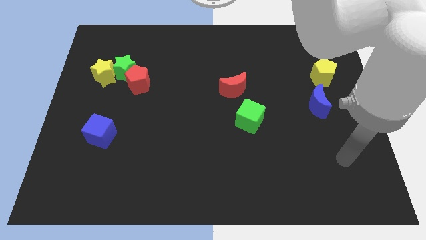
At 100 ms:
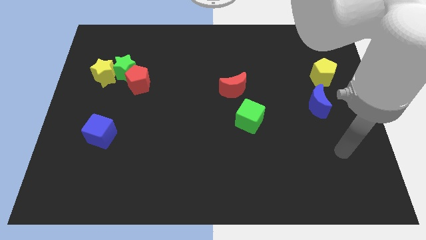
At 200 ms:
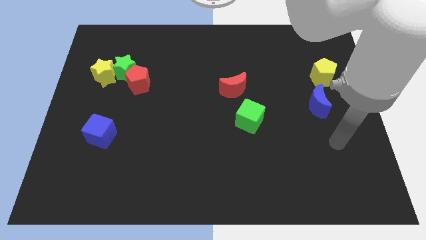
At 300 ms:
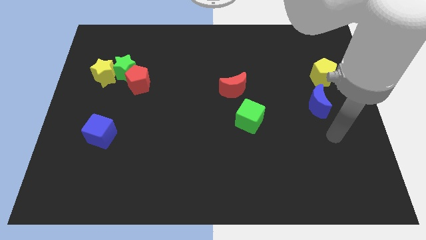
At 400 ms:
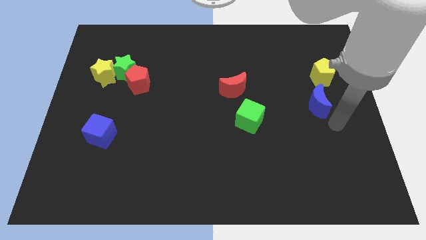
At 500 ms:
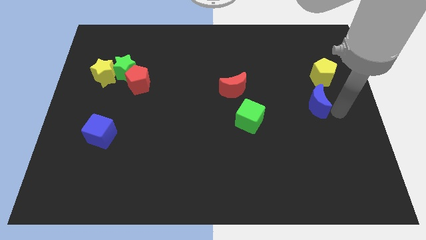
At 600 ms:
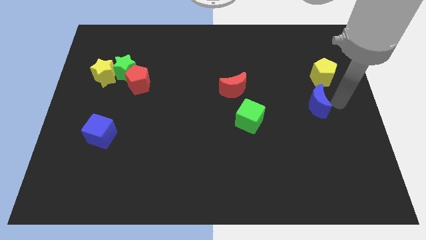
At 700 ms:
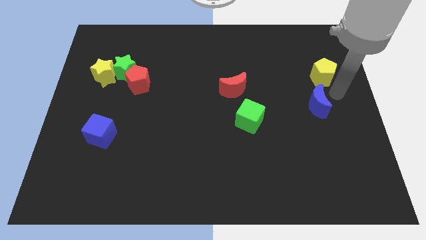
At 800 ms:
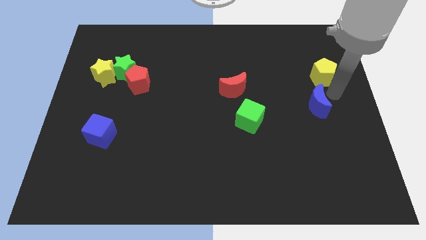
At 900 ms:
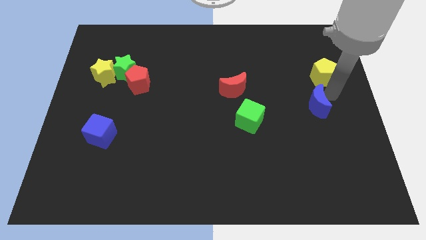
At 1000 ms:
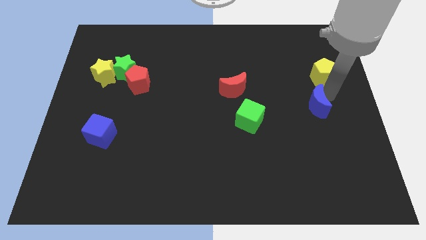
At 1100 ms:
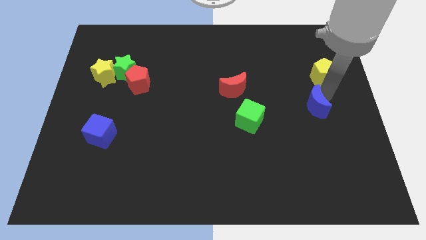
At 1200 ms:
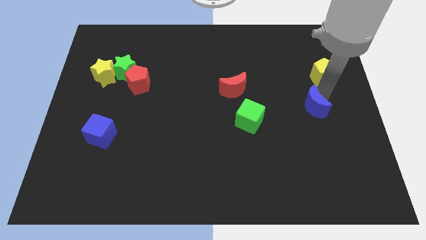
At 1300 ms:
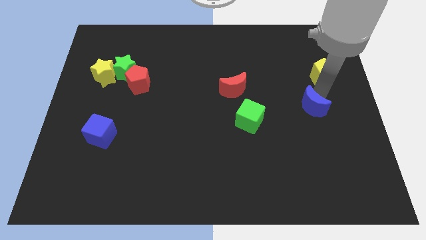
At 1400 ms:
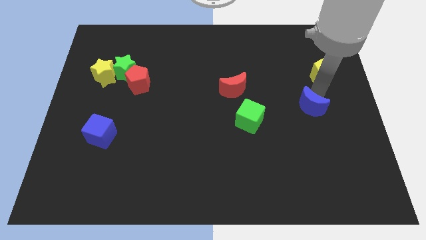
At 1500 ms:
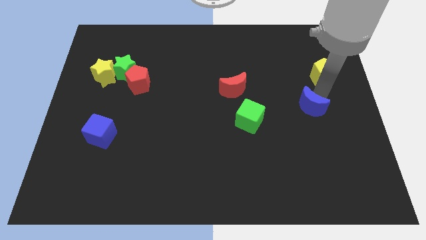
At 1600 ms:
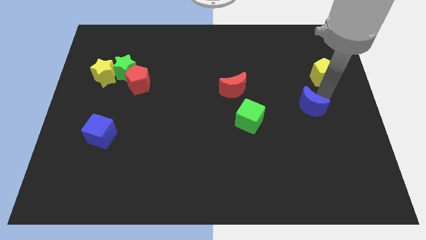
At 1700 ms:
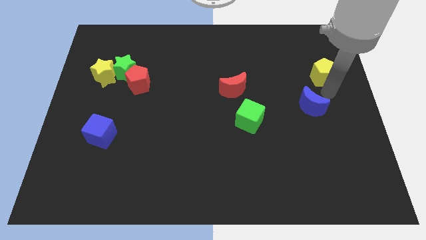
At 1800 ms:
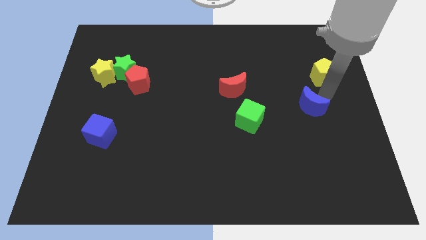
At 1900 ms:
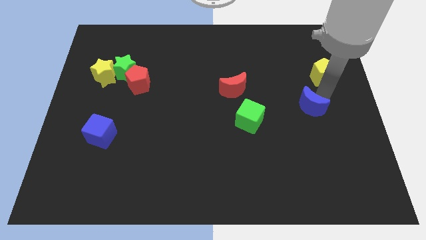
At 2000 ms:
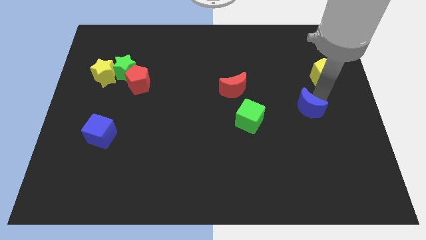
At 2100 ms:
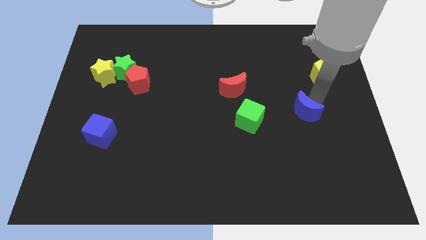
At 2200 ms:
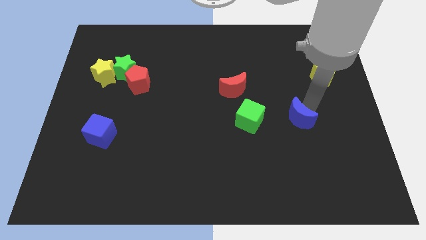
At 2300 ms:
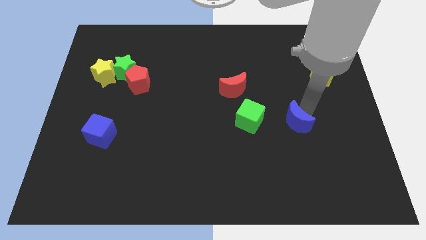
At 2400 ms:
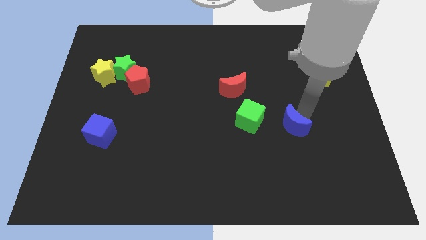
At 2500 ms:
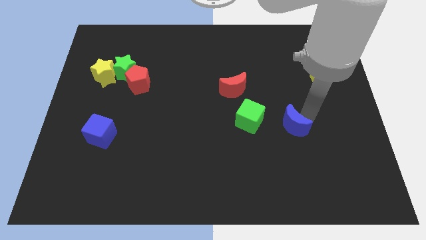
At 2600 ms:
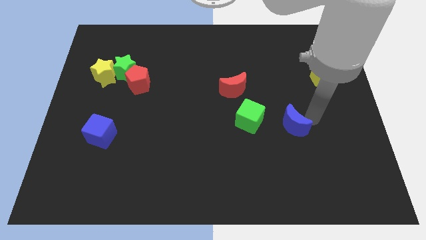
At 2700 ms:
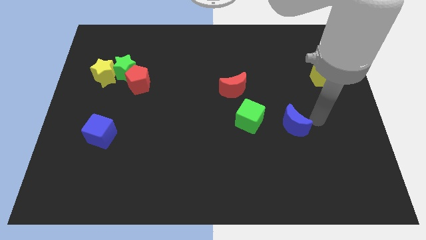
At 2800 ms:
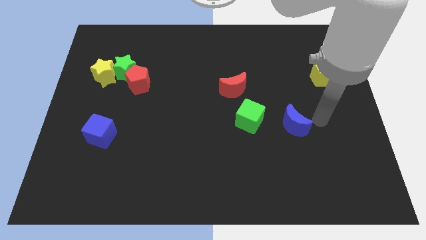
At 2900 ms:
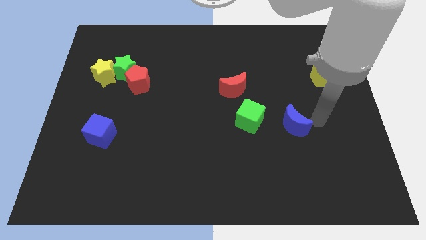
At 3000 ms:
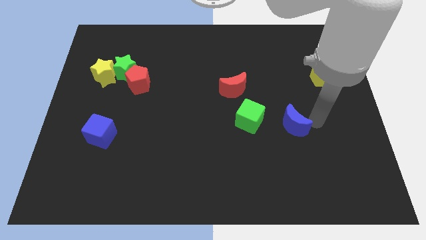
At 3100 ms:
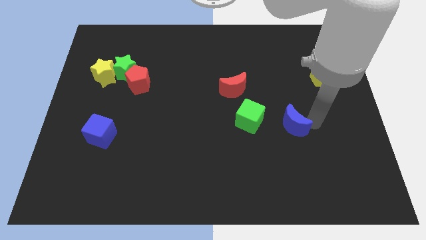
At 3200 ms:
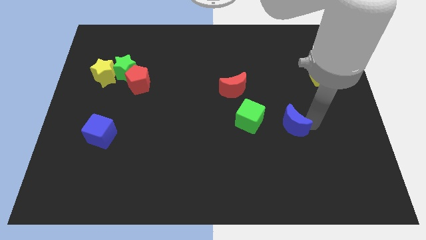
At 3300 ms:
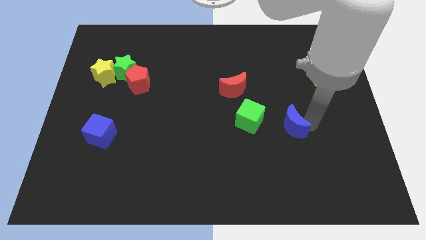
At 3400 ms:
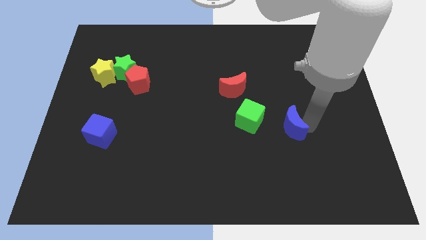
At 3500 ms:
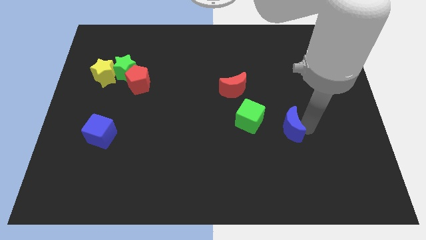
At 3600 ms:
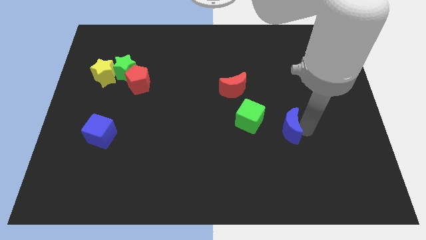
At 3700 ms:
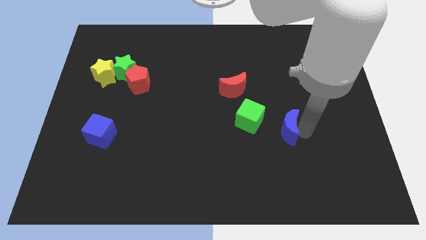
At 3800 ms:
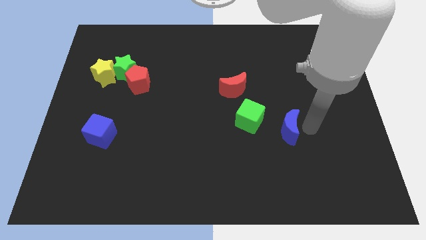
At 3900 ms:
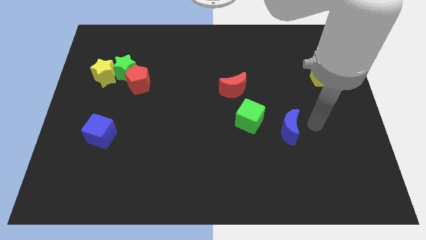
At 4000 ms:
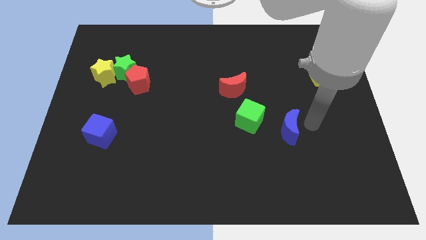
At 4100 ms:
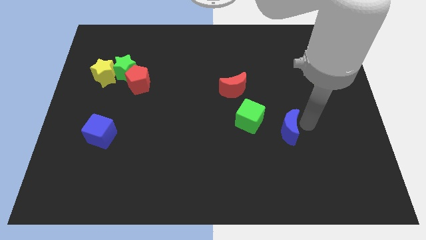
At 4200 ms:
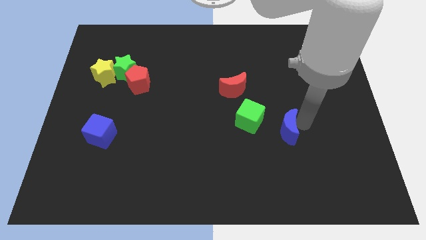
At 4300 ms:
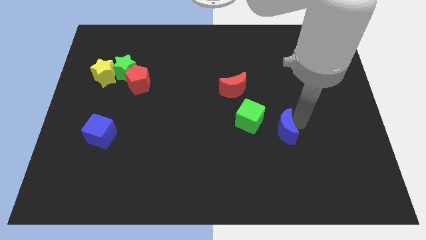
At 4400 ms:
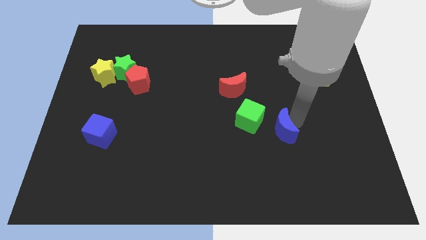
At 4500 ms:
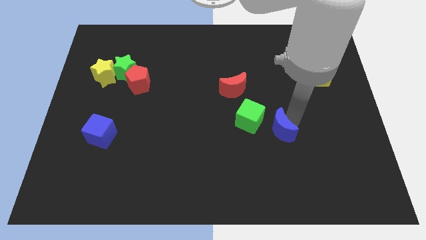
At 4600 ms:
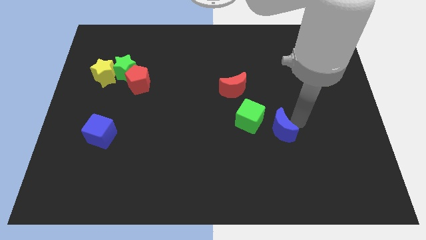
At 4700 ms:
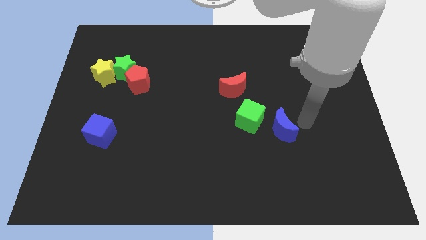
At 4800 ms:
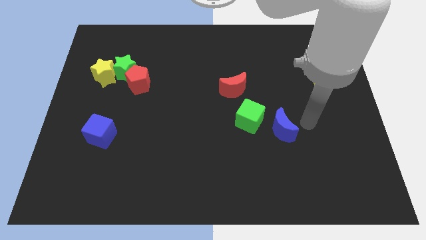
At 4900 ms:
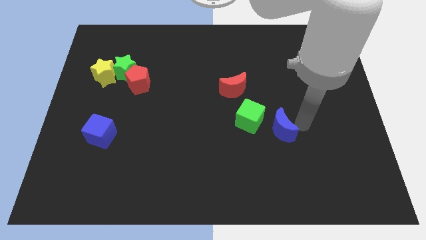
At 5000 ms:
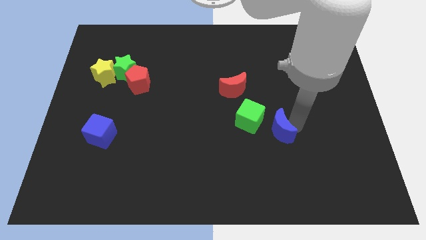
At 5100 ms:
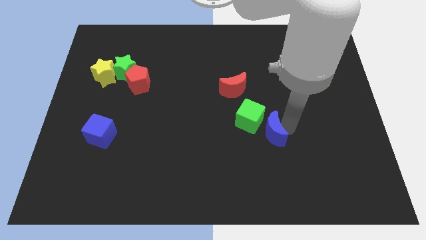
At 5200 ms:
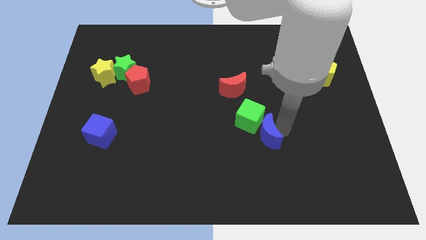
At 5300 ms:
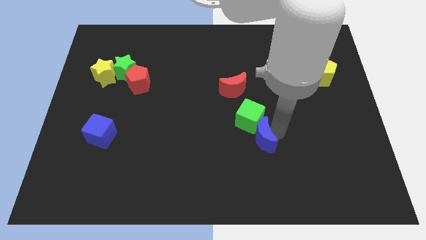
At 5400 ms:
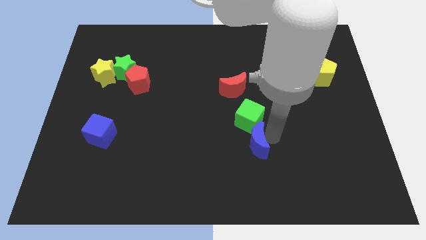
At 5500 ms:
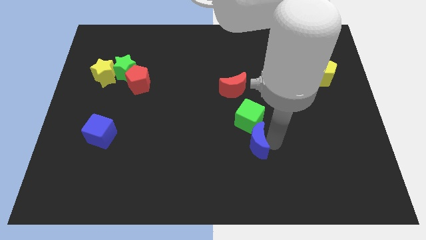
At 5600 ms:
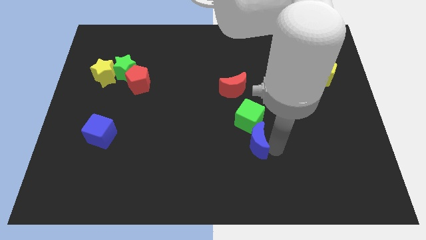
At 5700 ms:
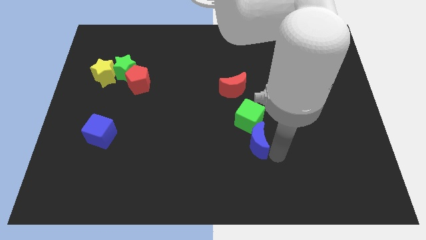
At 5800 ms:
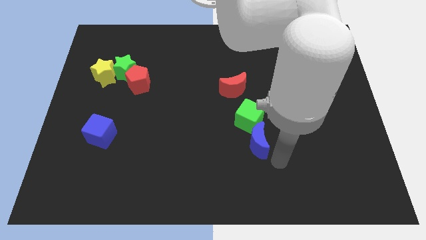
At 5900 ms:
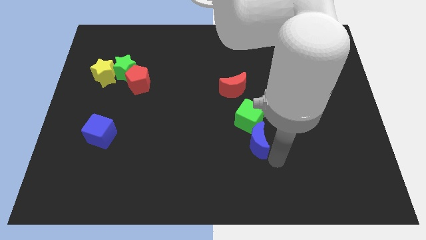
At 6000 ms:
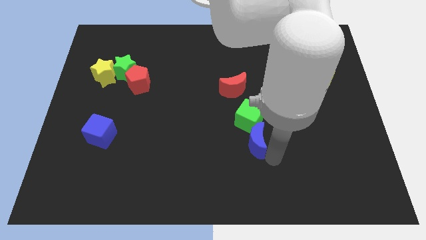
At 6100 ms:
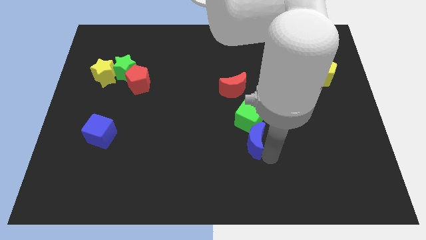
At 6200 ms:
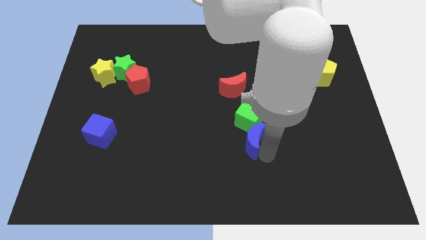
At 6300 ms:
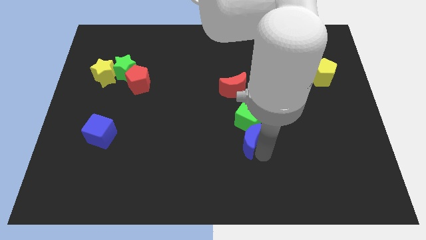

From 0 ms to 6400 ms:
push the blue moon to the bottom side of the red moon

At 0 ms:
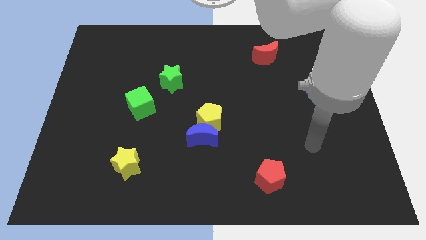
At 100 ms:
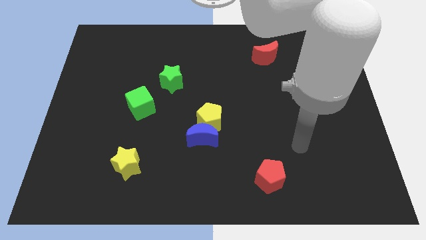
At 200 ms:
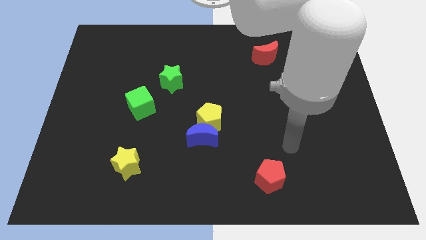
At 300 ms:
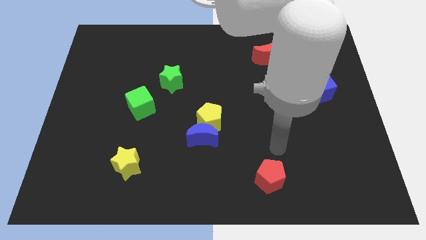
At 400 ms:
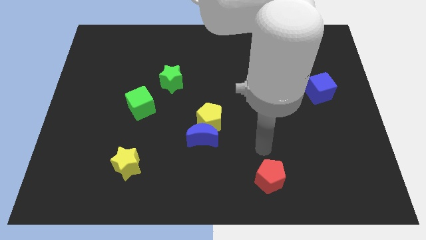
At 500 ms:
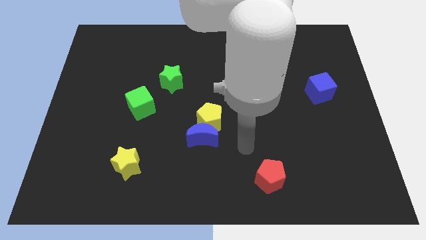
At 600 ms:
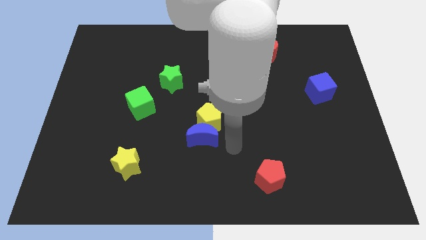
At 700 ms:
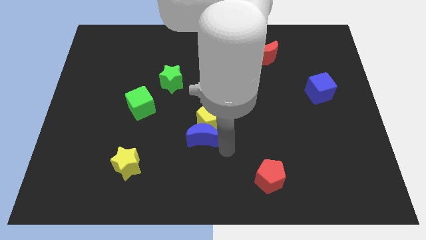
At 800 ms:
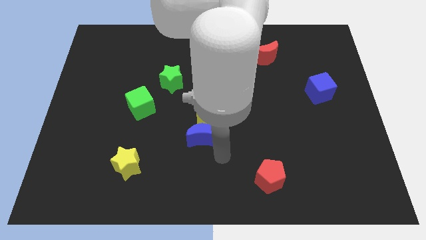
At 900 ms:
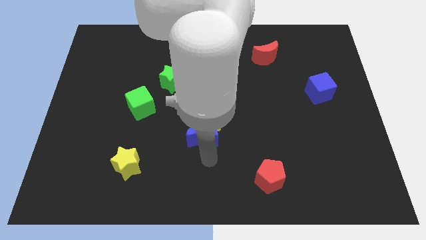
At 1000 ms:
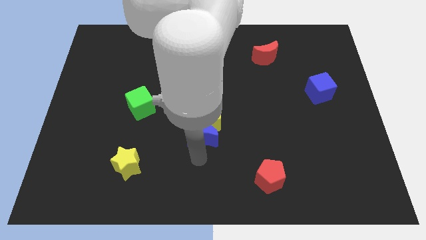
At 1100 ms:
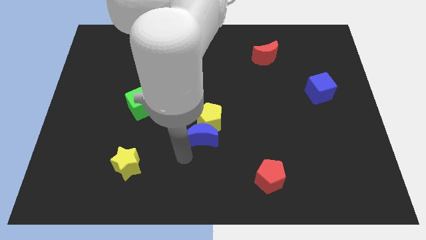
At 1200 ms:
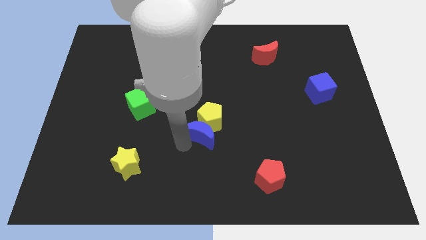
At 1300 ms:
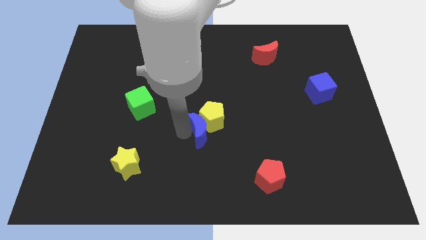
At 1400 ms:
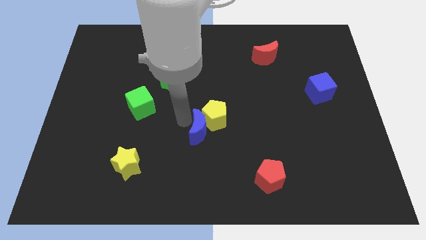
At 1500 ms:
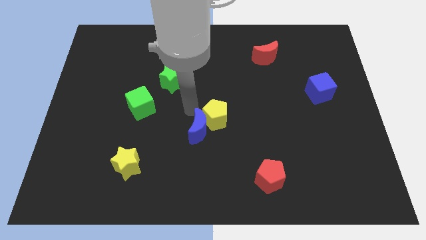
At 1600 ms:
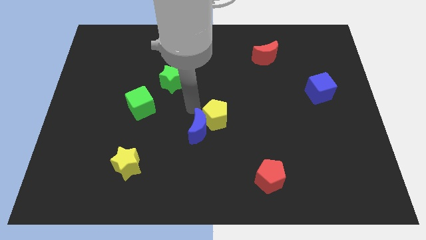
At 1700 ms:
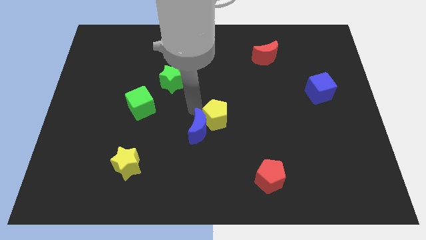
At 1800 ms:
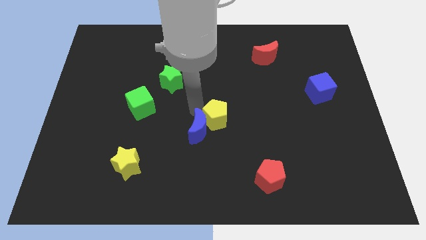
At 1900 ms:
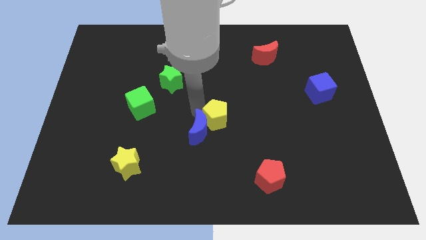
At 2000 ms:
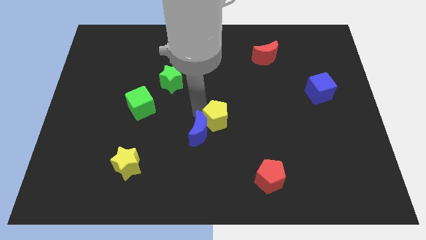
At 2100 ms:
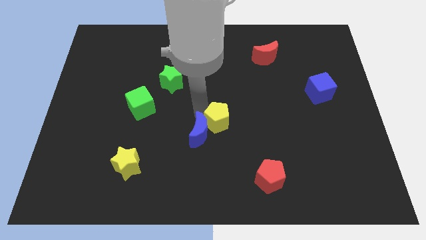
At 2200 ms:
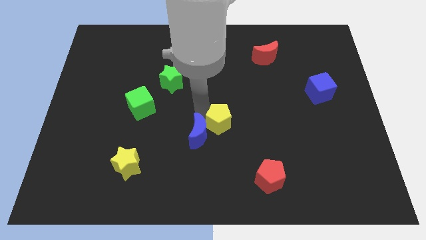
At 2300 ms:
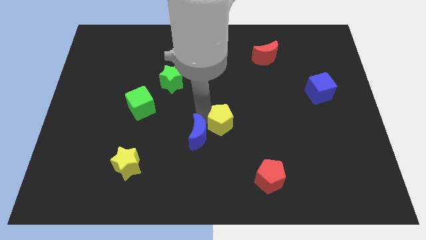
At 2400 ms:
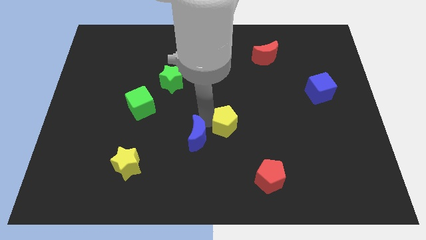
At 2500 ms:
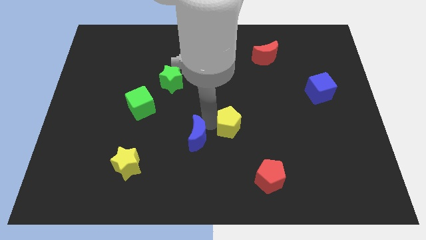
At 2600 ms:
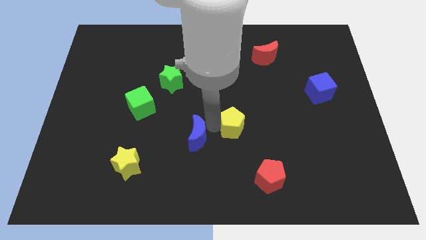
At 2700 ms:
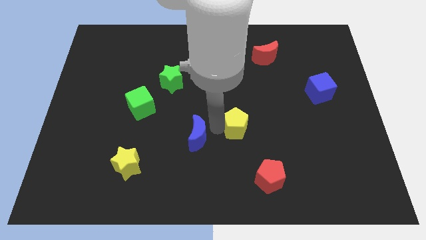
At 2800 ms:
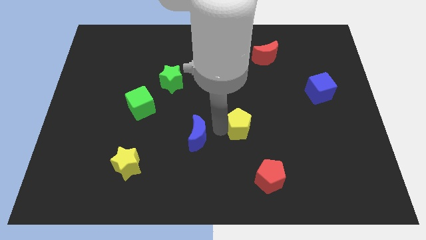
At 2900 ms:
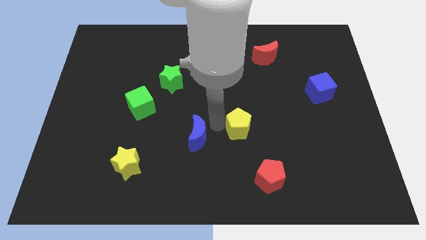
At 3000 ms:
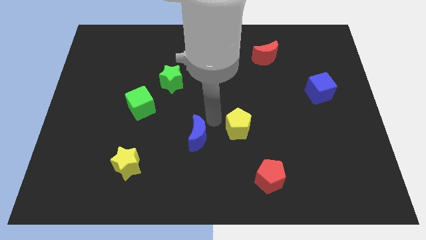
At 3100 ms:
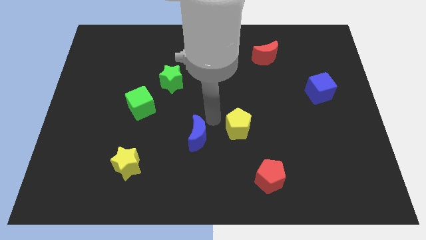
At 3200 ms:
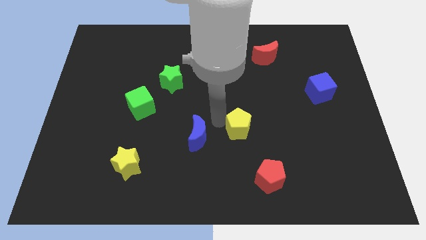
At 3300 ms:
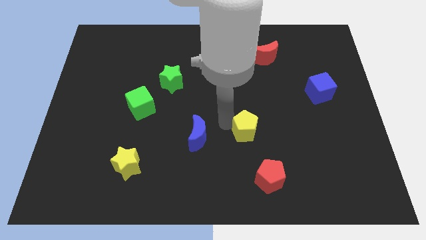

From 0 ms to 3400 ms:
put the yellow pentagon to the top side of the red pentagon
